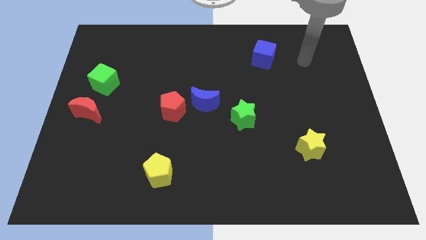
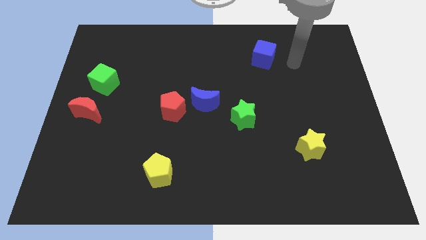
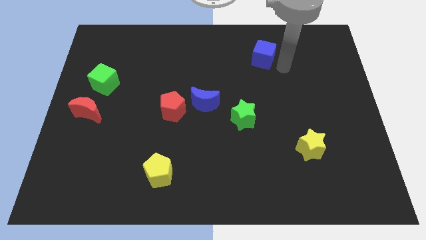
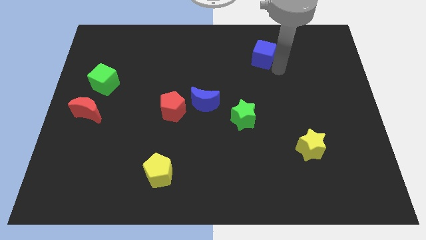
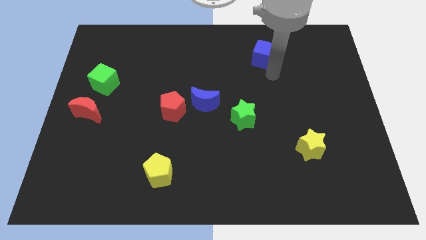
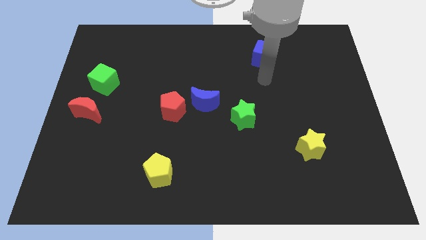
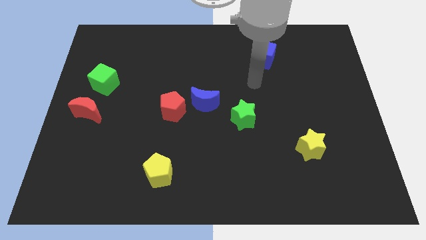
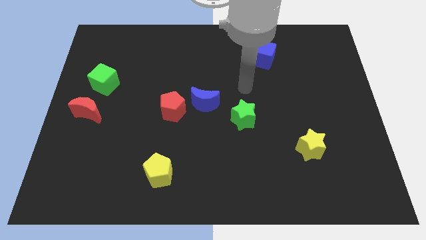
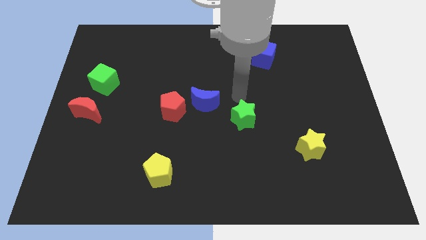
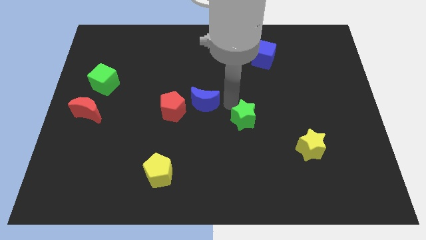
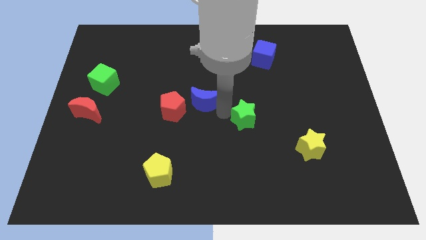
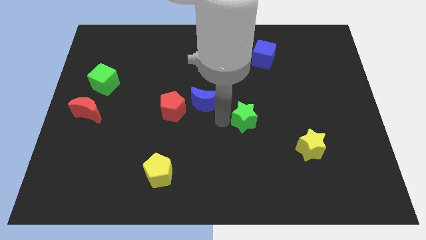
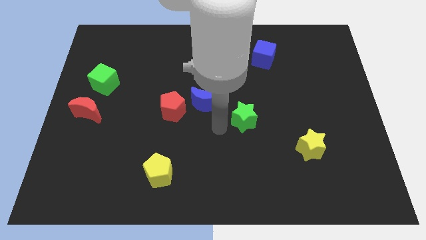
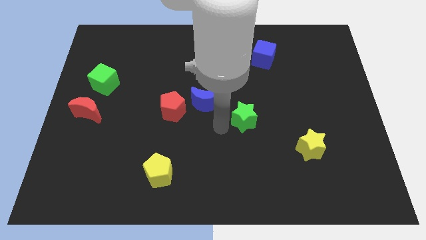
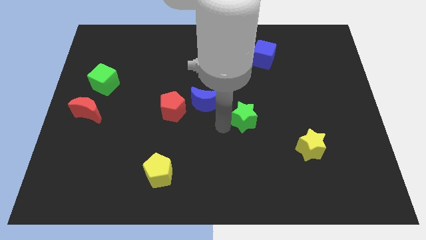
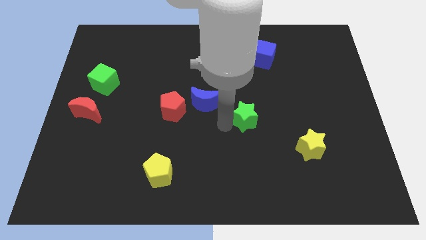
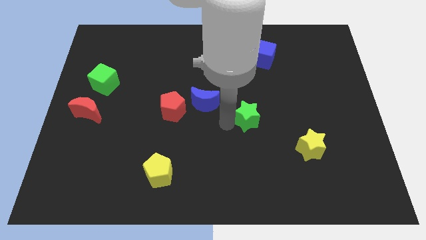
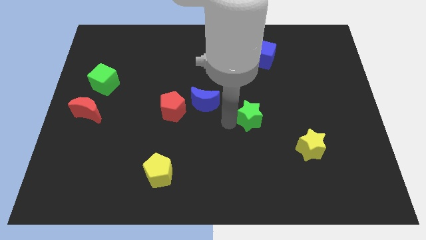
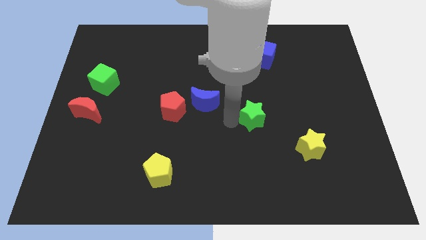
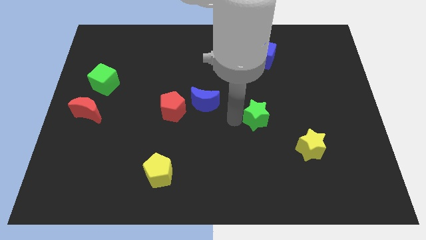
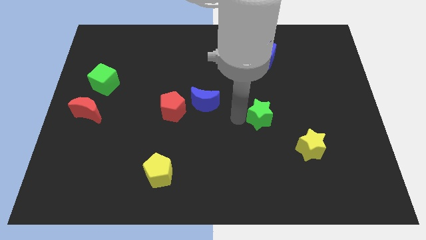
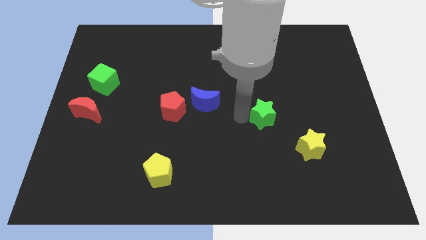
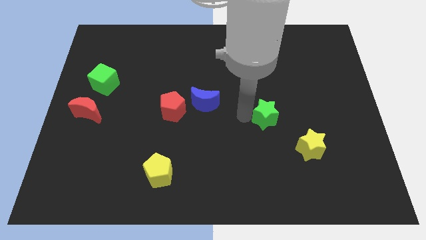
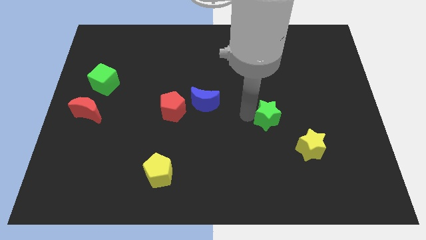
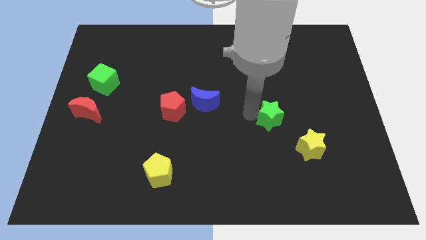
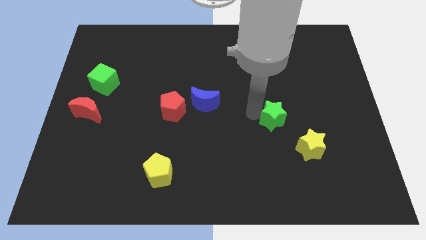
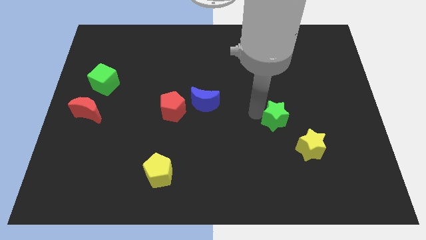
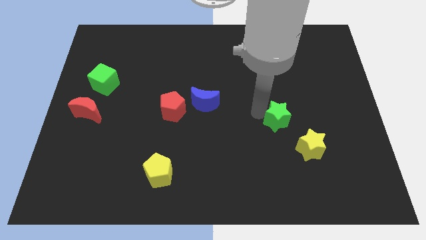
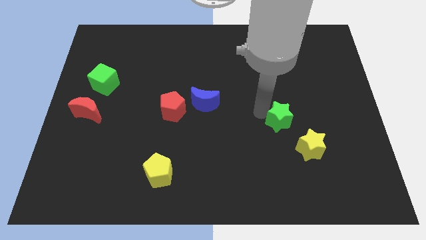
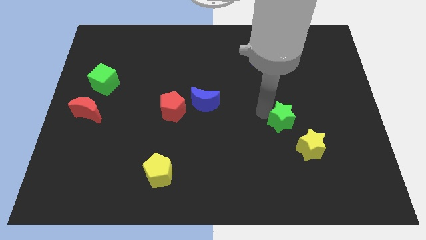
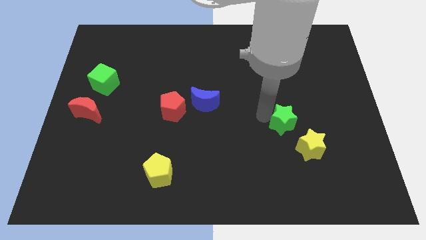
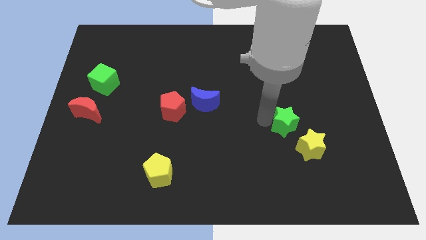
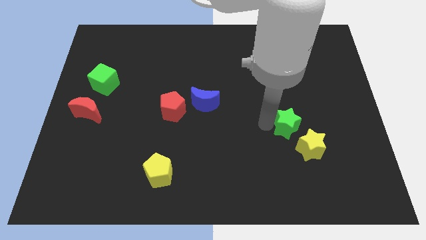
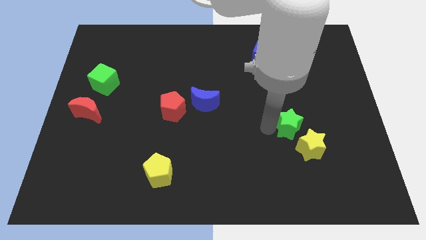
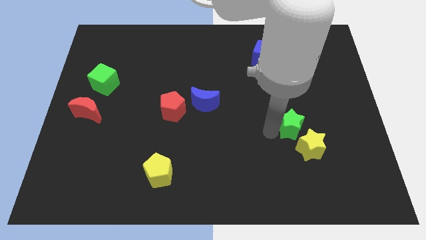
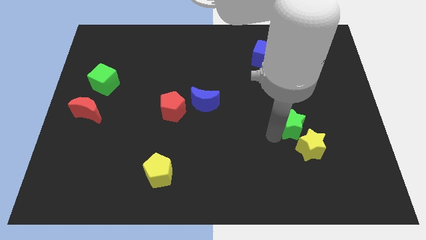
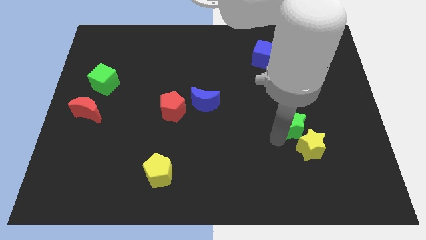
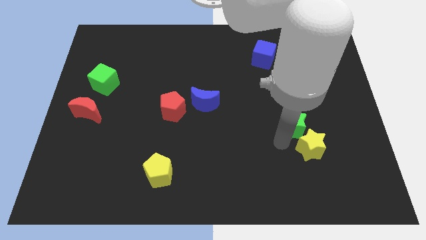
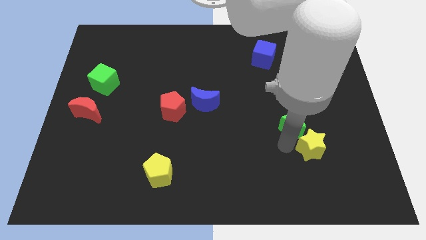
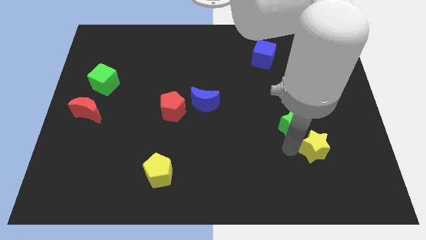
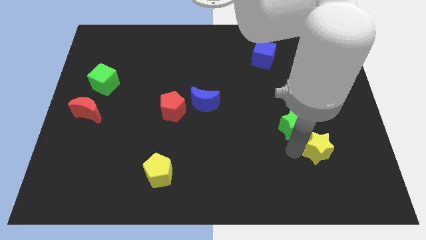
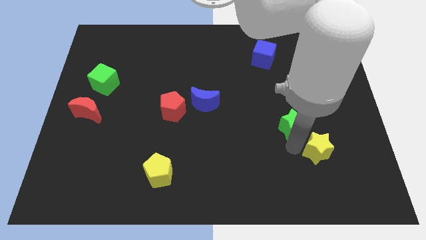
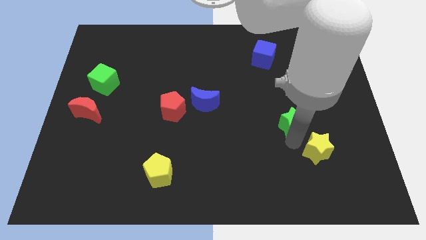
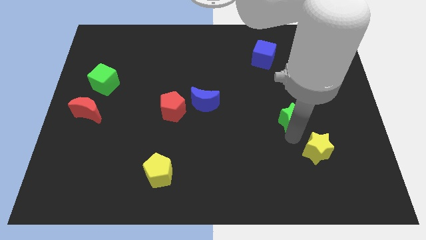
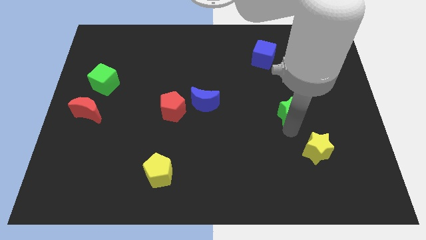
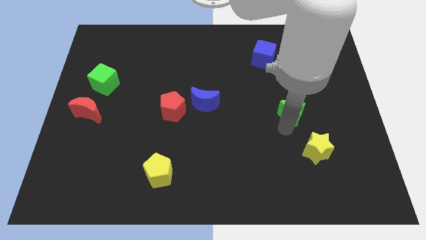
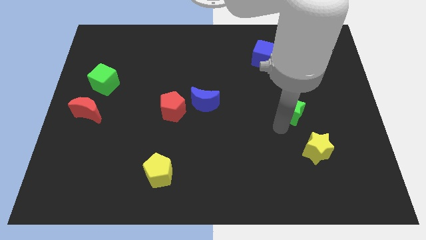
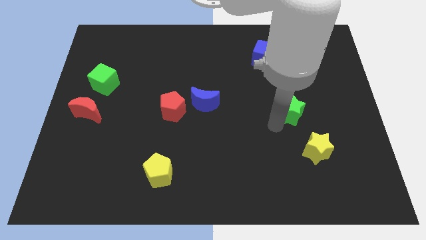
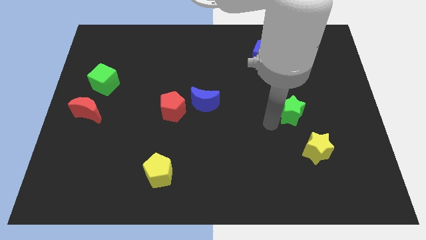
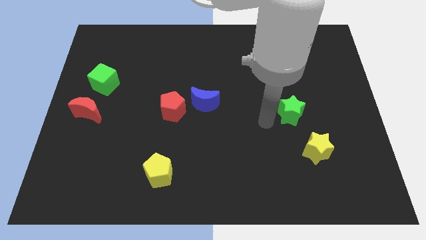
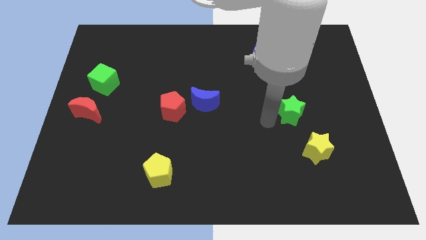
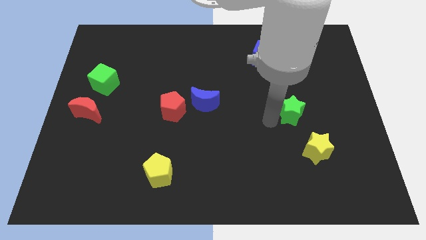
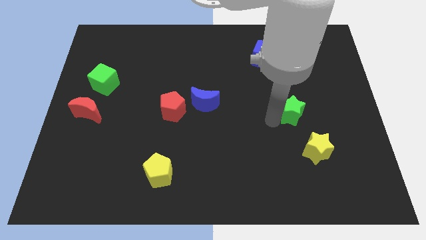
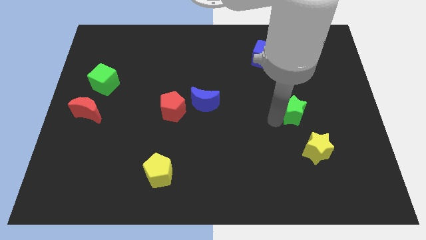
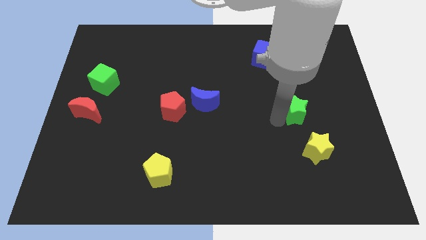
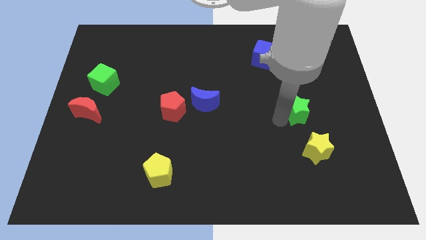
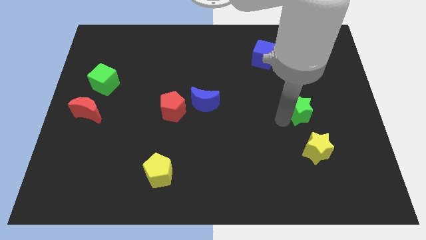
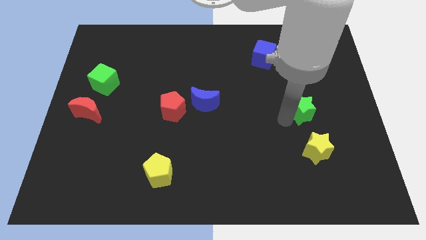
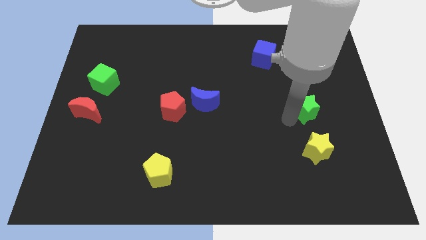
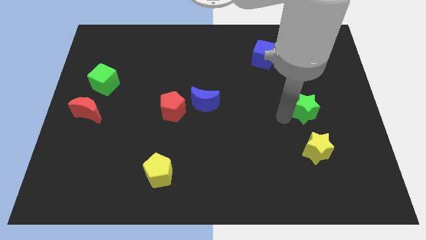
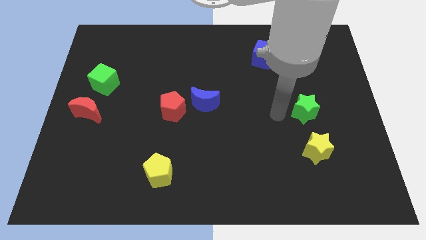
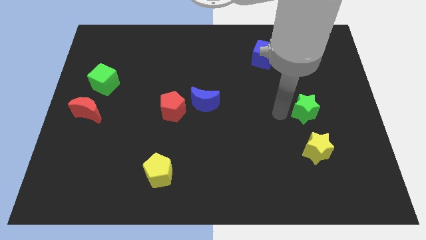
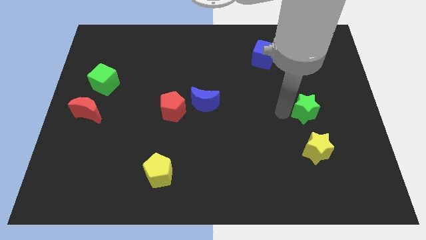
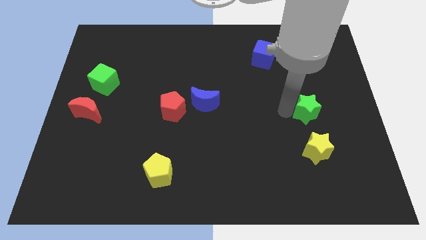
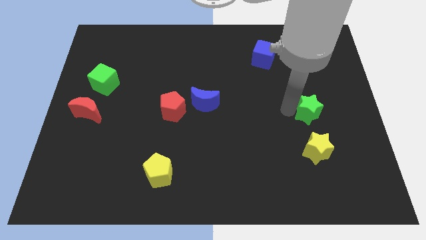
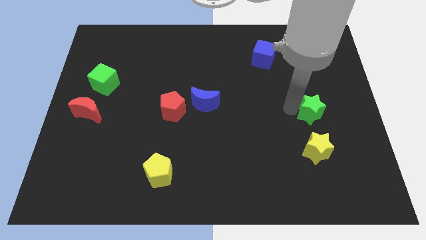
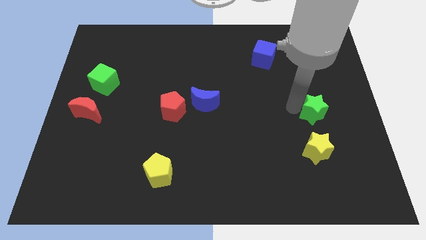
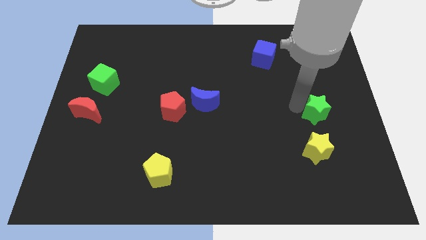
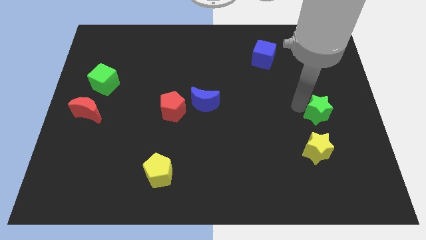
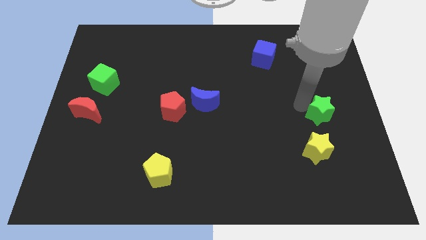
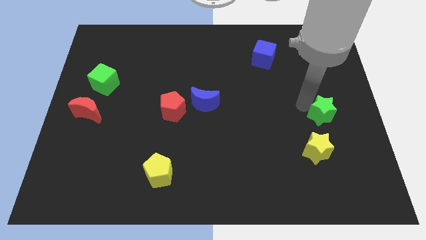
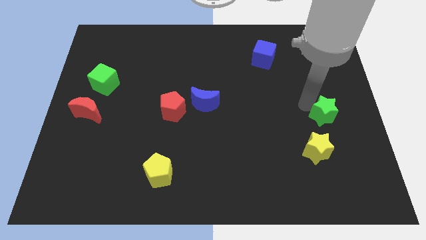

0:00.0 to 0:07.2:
slide the green star to the right side of the board
